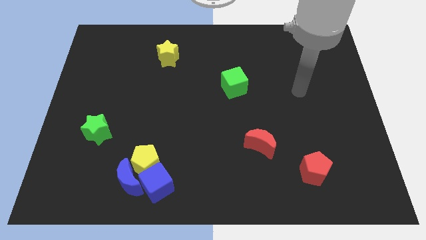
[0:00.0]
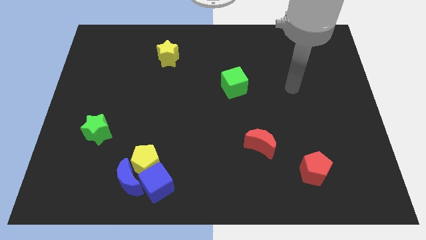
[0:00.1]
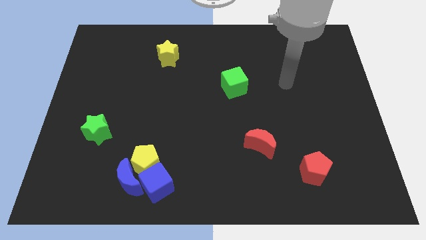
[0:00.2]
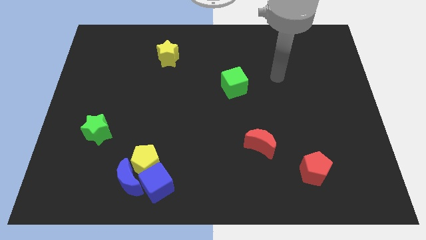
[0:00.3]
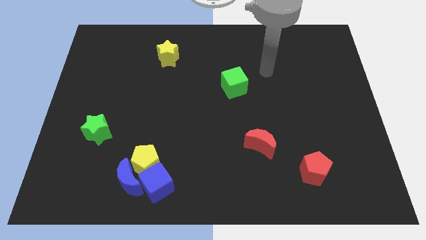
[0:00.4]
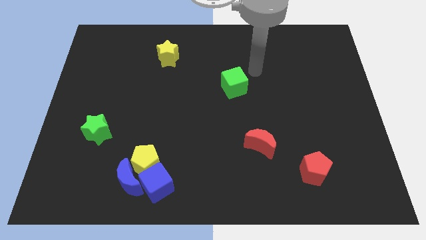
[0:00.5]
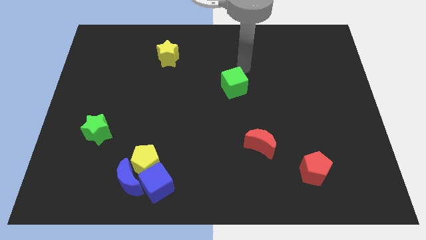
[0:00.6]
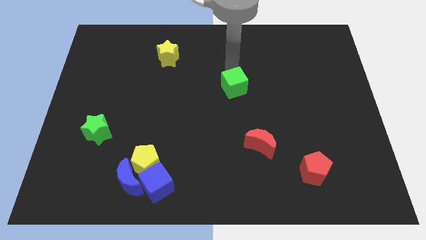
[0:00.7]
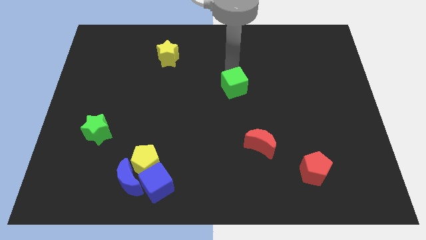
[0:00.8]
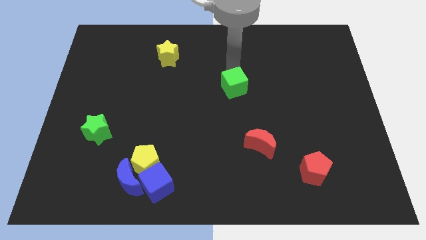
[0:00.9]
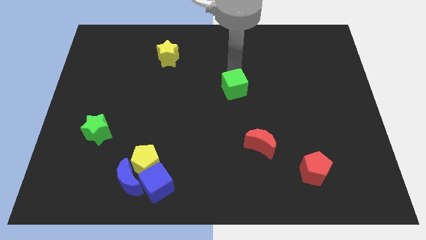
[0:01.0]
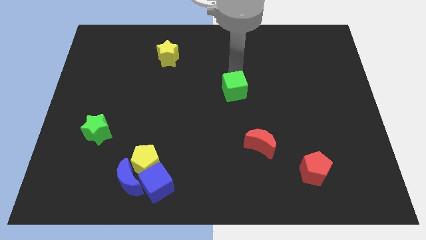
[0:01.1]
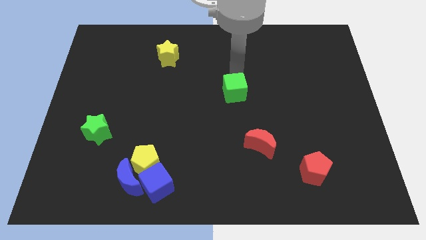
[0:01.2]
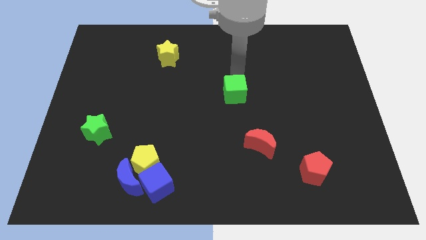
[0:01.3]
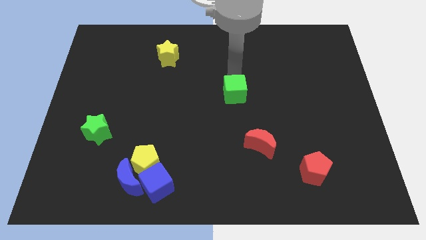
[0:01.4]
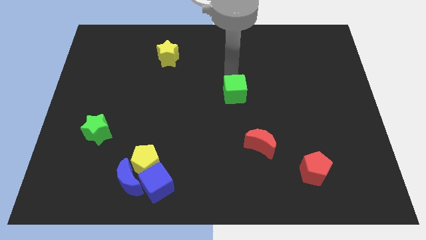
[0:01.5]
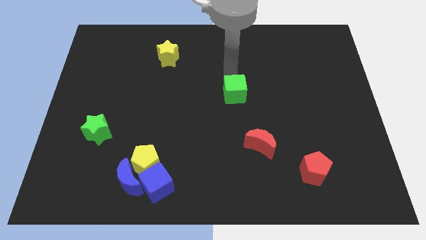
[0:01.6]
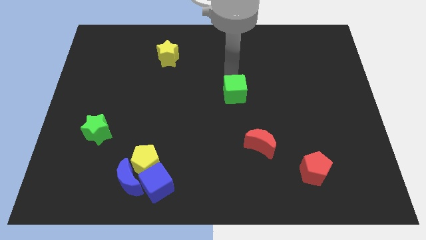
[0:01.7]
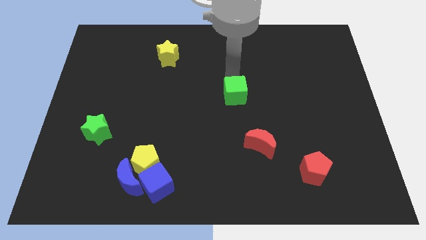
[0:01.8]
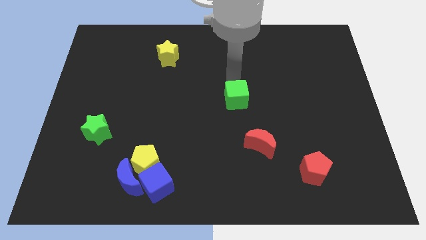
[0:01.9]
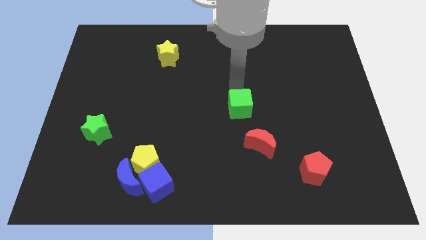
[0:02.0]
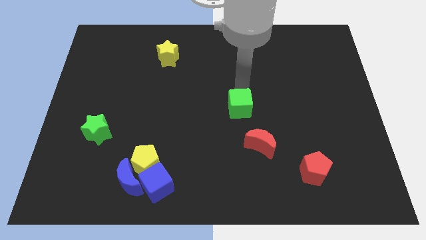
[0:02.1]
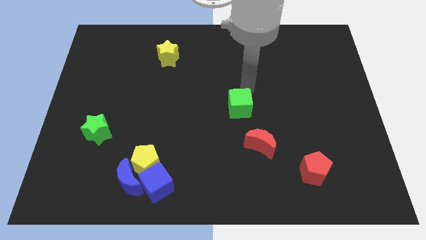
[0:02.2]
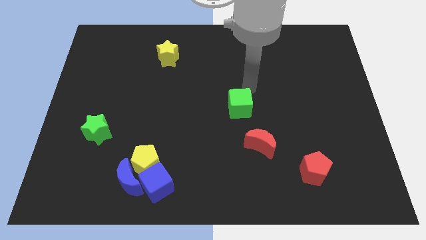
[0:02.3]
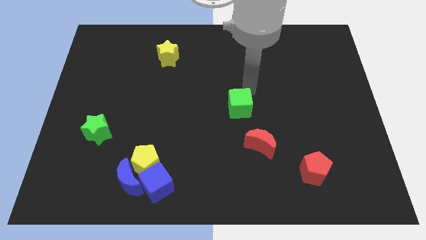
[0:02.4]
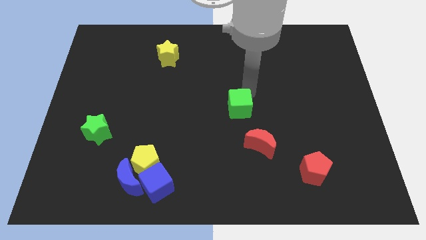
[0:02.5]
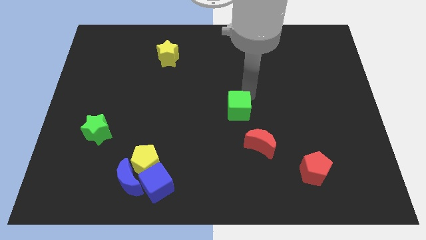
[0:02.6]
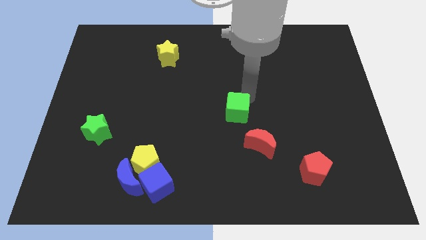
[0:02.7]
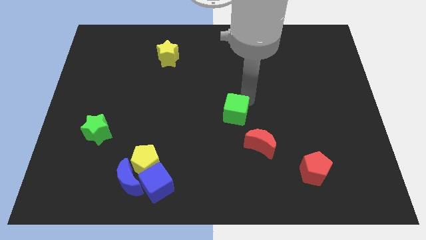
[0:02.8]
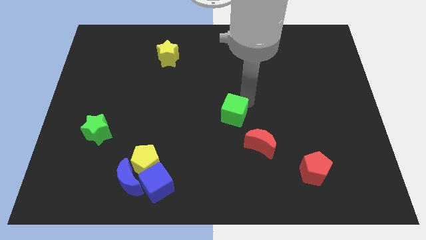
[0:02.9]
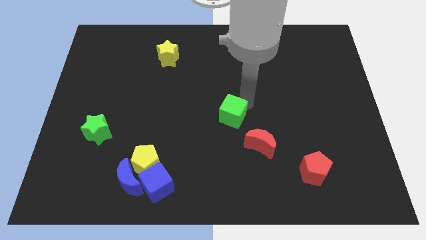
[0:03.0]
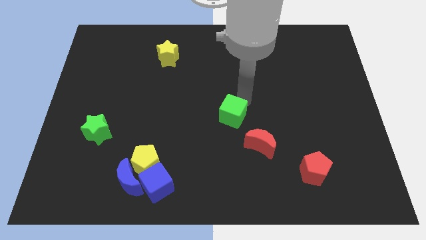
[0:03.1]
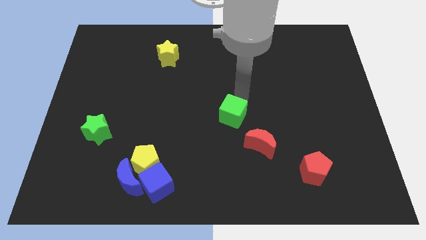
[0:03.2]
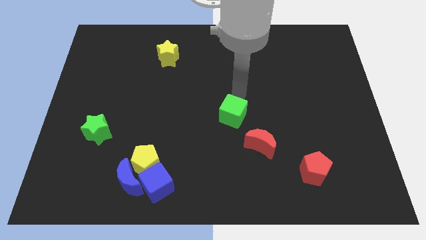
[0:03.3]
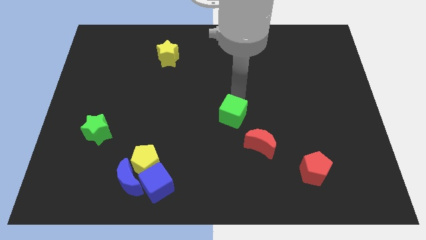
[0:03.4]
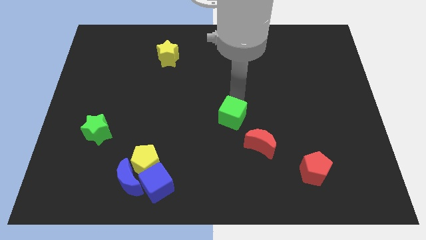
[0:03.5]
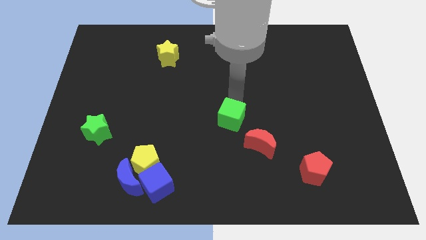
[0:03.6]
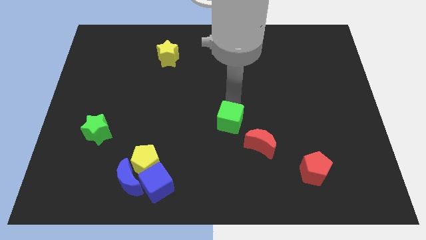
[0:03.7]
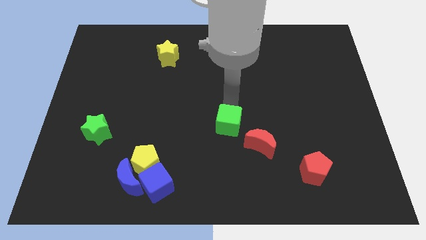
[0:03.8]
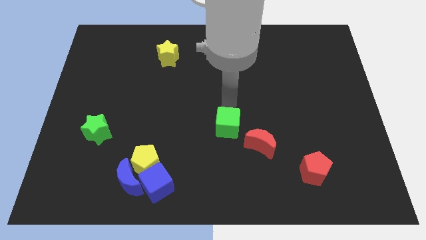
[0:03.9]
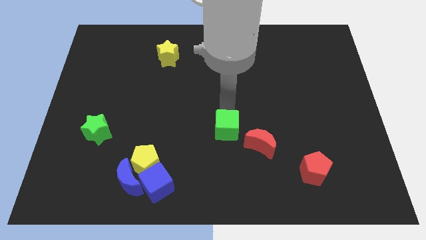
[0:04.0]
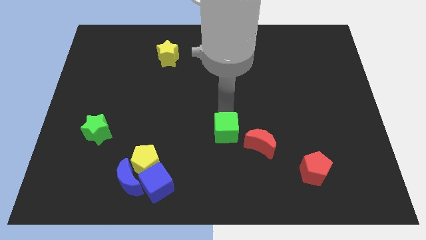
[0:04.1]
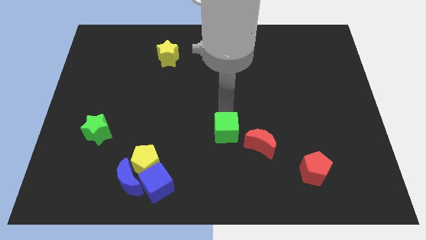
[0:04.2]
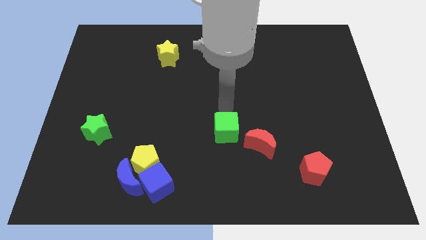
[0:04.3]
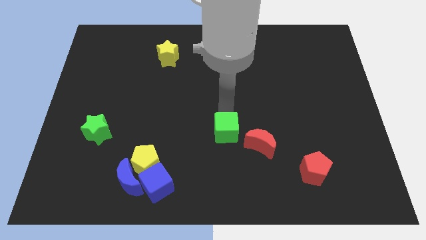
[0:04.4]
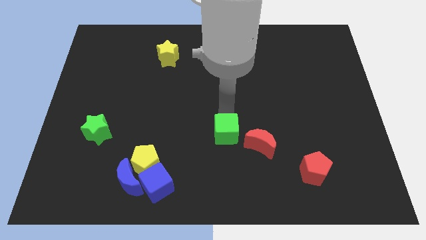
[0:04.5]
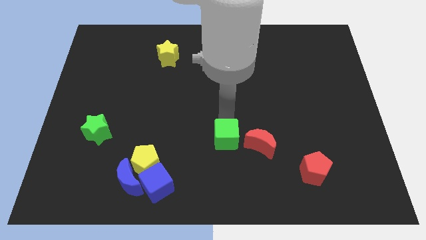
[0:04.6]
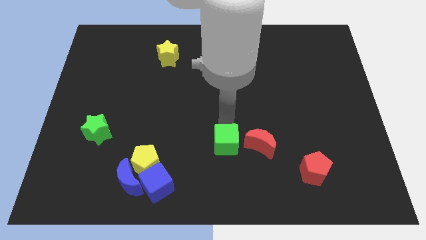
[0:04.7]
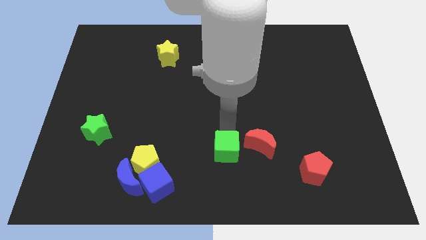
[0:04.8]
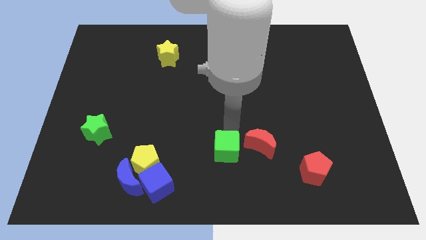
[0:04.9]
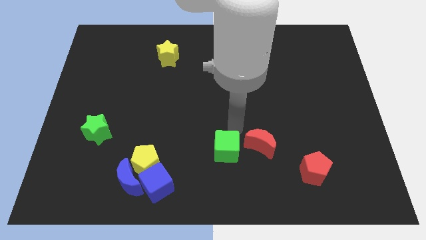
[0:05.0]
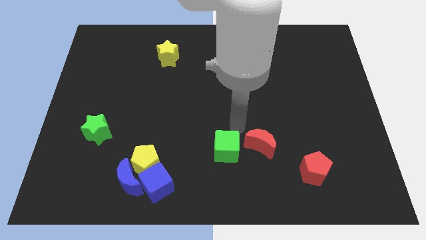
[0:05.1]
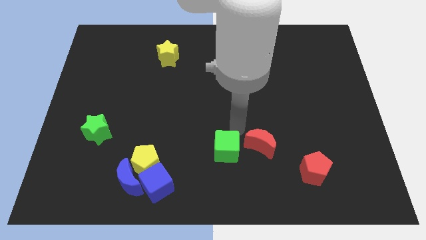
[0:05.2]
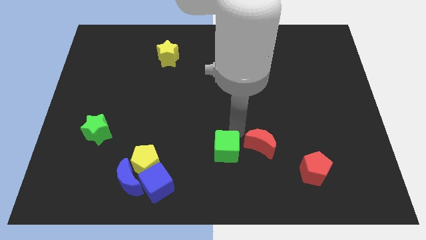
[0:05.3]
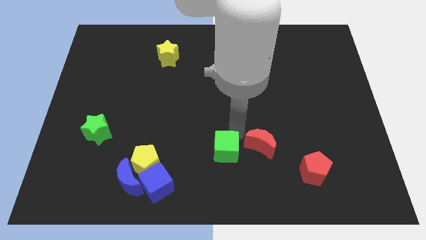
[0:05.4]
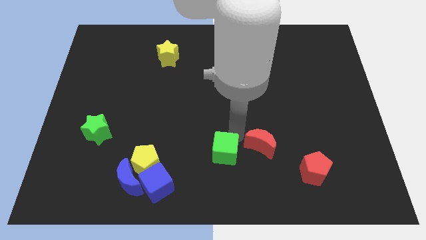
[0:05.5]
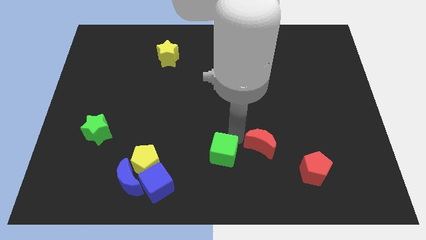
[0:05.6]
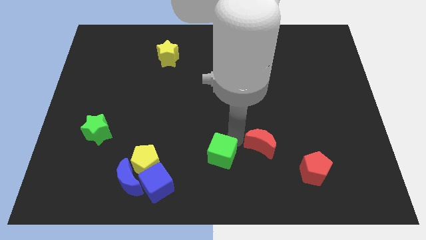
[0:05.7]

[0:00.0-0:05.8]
move the green cube to the bottom side

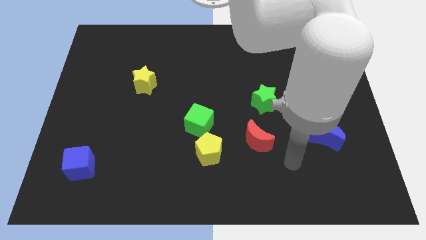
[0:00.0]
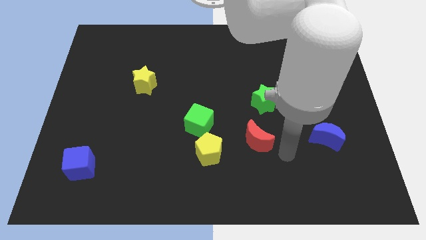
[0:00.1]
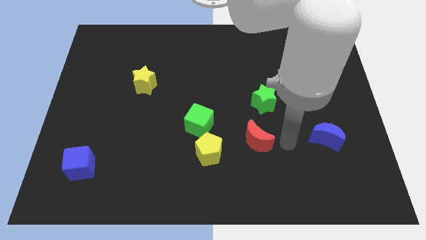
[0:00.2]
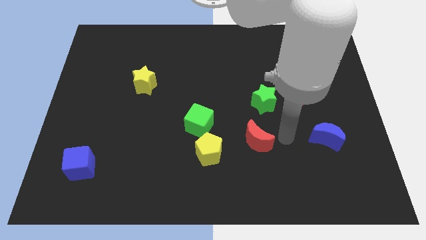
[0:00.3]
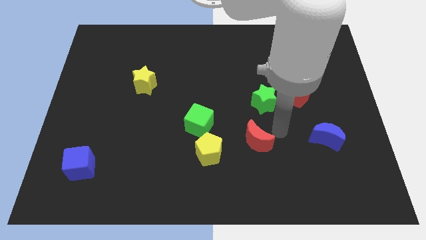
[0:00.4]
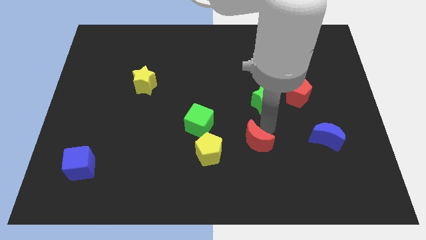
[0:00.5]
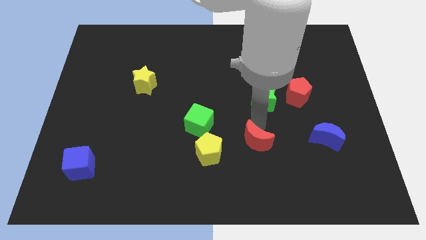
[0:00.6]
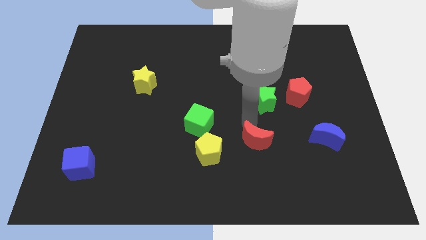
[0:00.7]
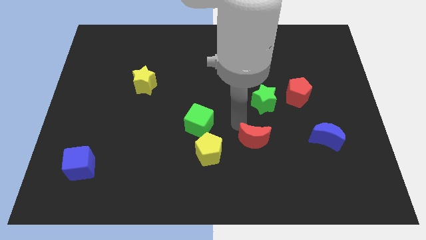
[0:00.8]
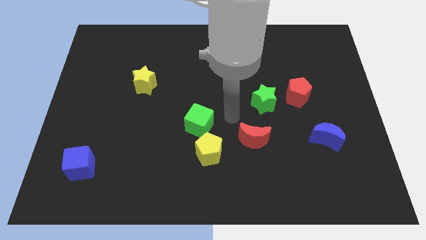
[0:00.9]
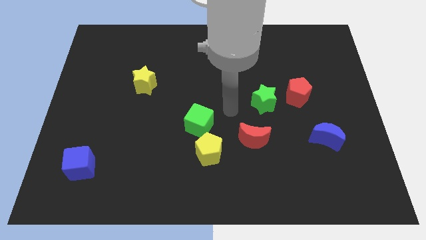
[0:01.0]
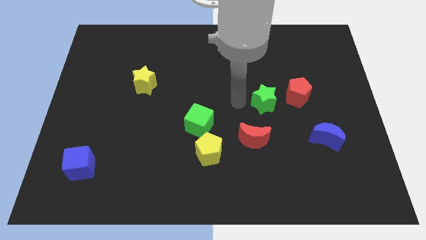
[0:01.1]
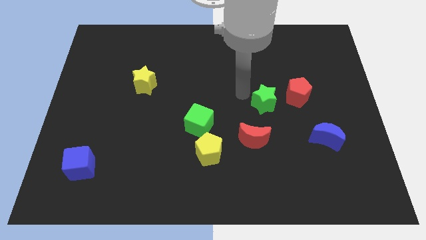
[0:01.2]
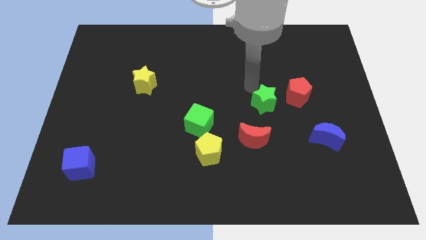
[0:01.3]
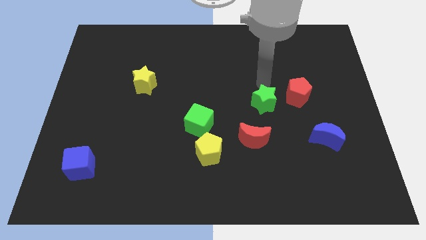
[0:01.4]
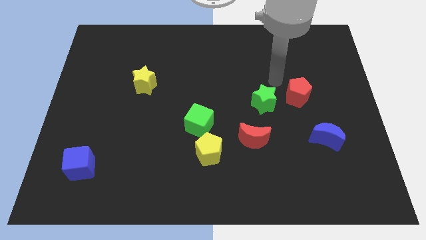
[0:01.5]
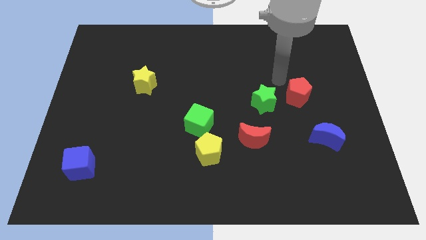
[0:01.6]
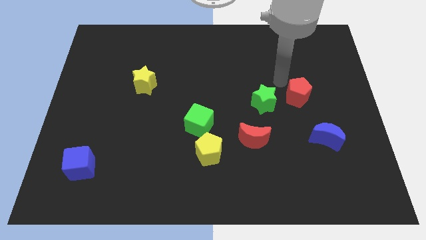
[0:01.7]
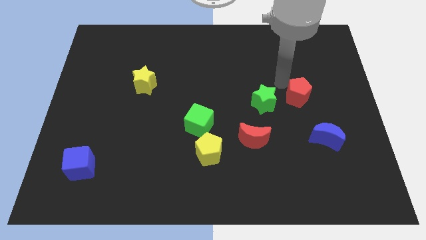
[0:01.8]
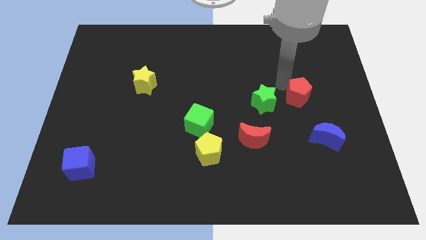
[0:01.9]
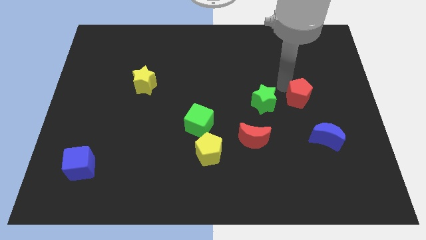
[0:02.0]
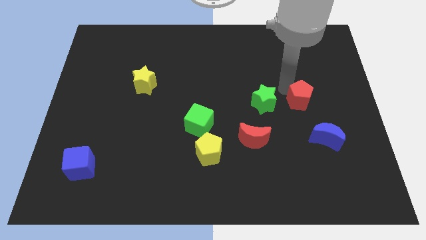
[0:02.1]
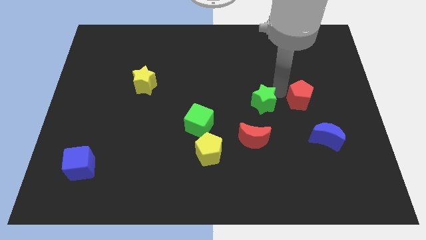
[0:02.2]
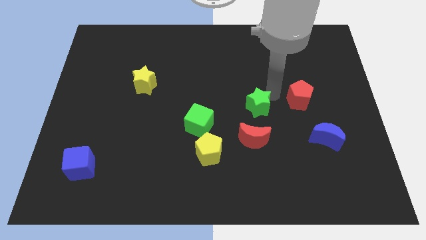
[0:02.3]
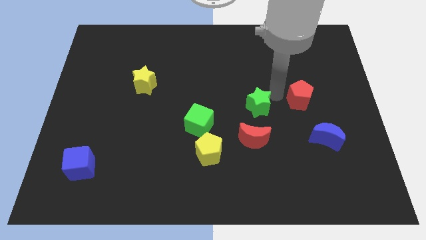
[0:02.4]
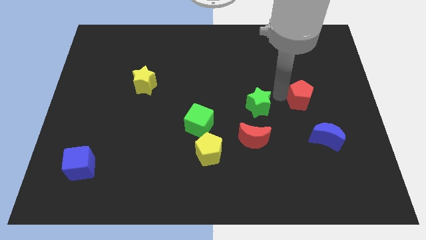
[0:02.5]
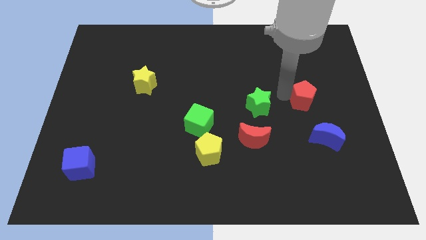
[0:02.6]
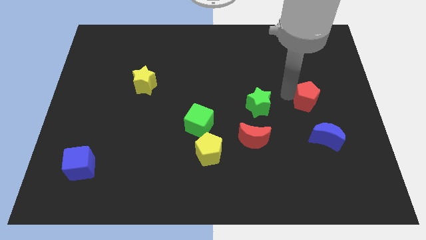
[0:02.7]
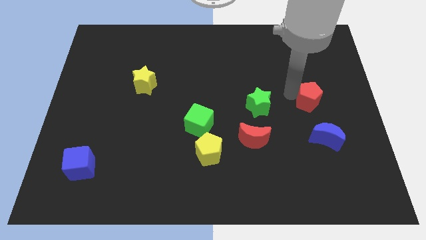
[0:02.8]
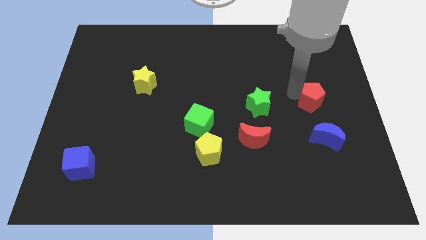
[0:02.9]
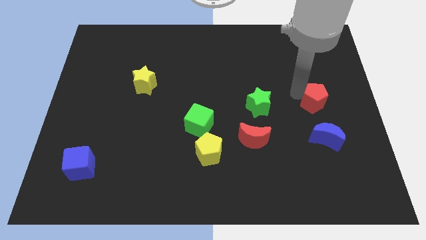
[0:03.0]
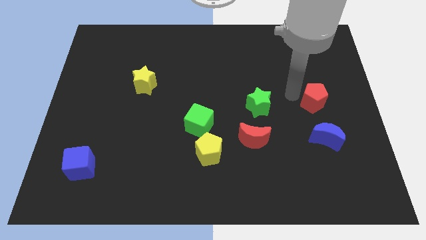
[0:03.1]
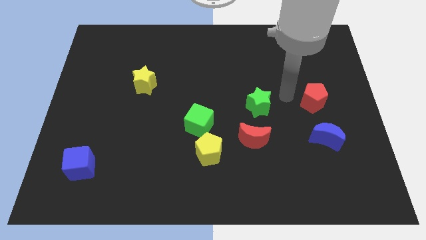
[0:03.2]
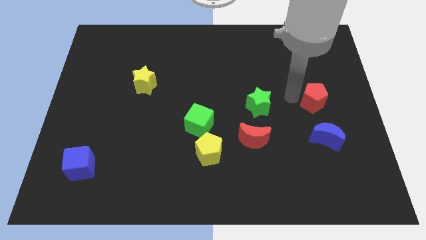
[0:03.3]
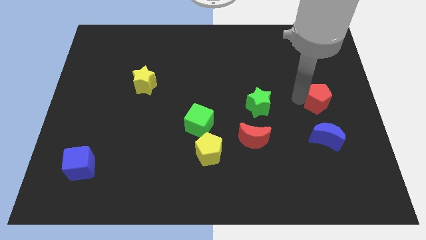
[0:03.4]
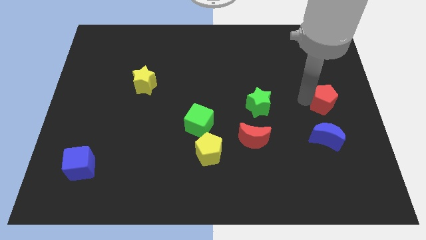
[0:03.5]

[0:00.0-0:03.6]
push the red pentagon to the right side
